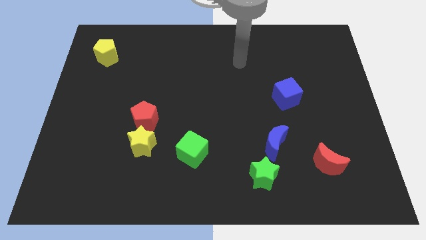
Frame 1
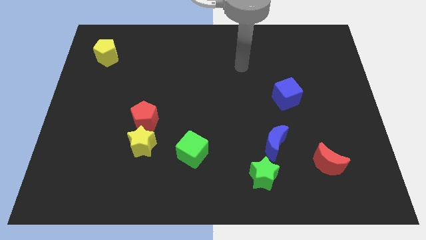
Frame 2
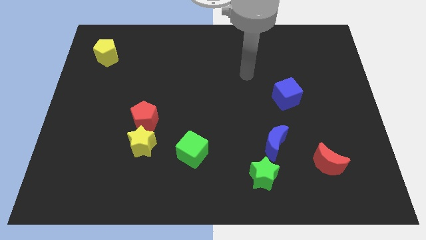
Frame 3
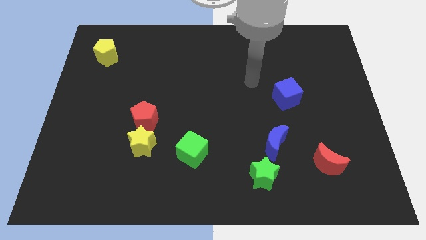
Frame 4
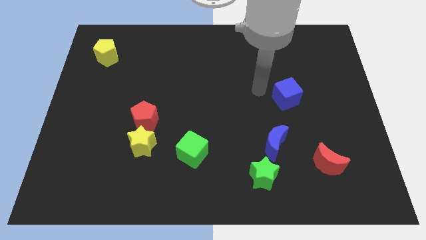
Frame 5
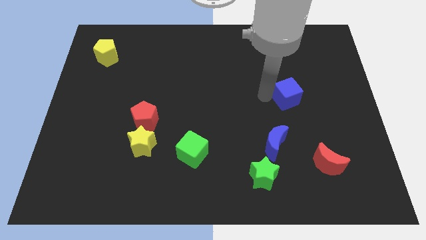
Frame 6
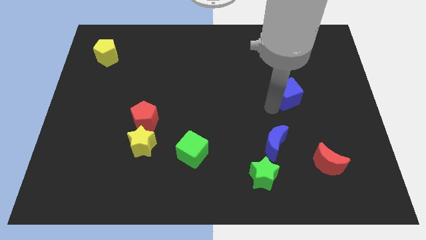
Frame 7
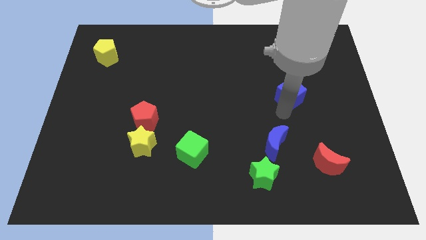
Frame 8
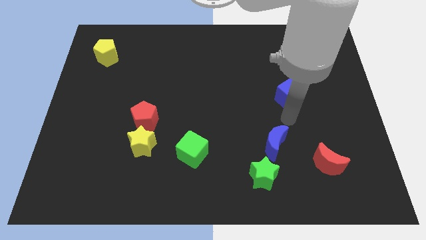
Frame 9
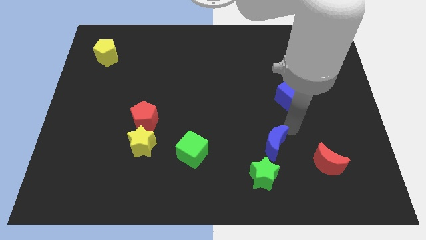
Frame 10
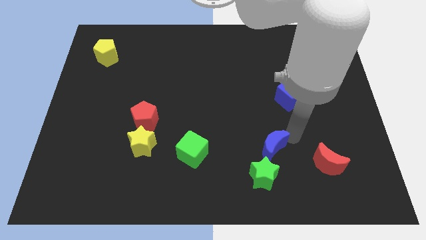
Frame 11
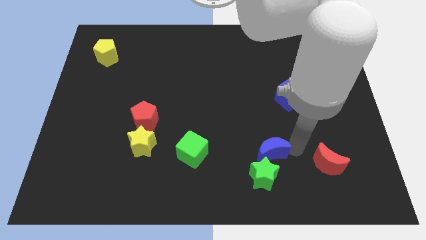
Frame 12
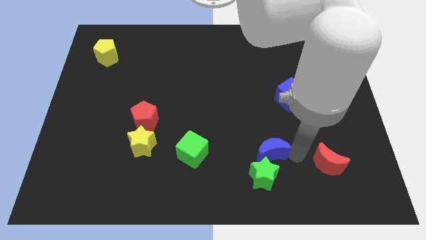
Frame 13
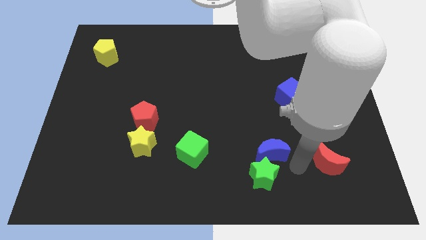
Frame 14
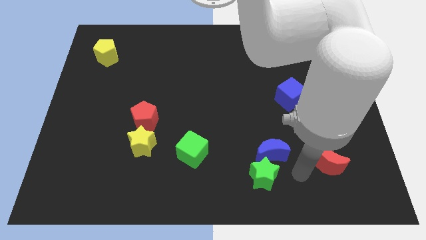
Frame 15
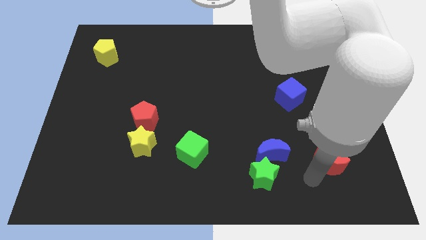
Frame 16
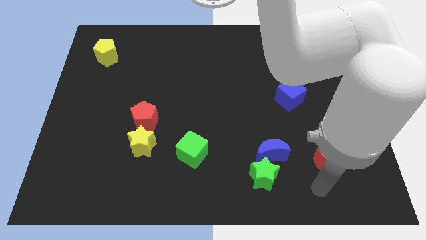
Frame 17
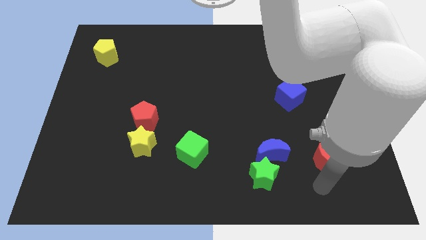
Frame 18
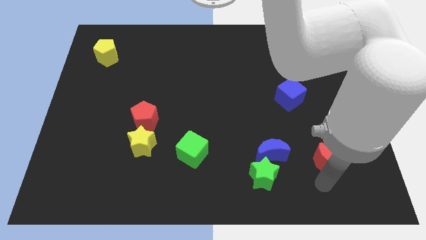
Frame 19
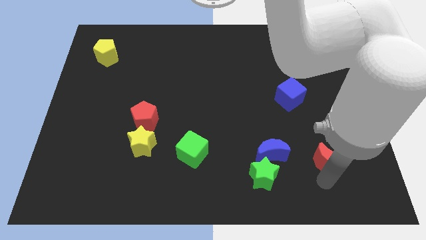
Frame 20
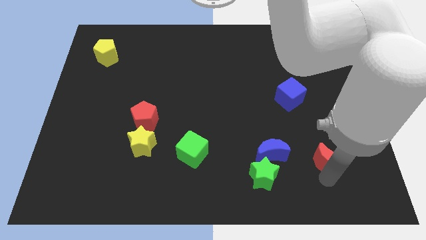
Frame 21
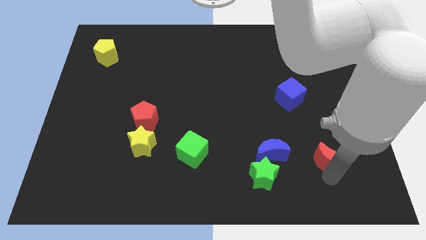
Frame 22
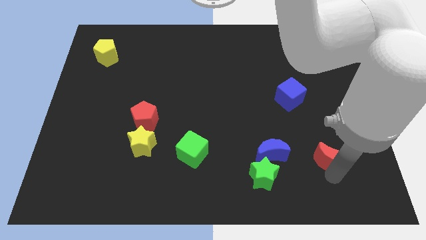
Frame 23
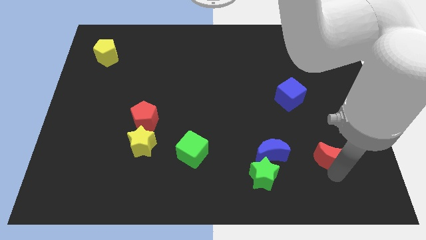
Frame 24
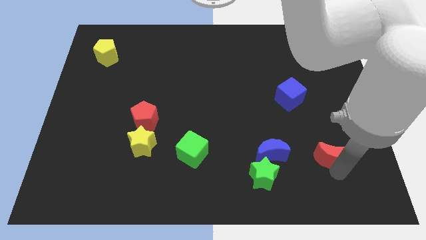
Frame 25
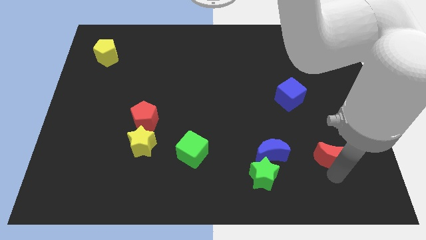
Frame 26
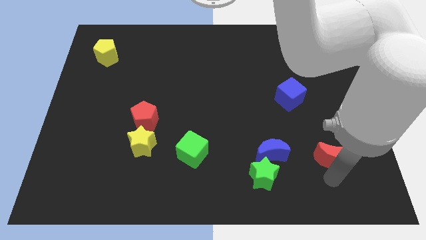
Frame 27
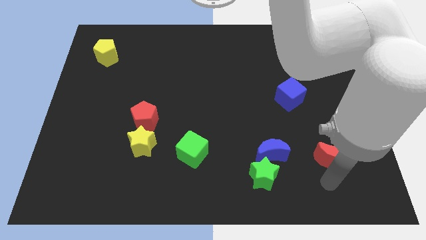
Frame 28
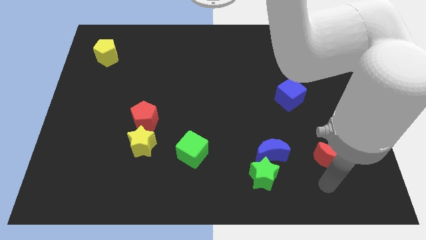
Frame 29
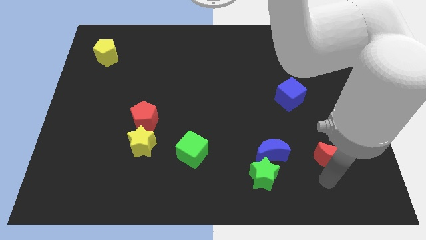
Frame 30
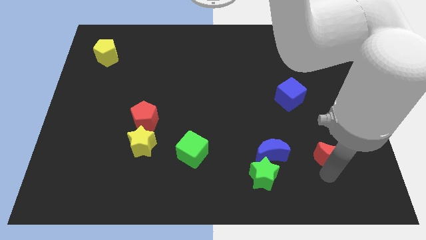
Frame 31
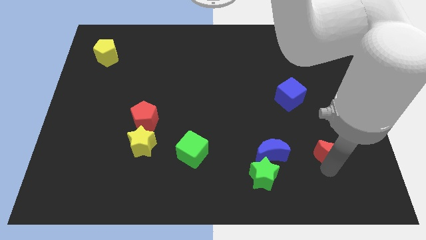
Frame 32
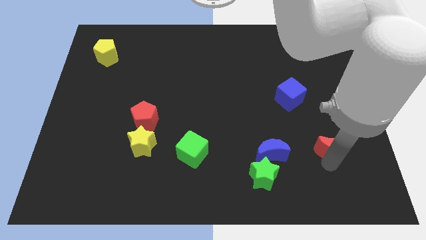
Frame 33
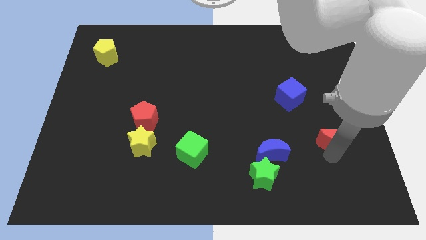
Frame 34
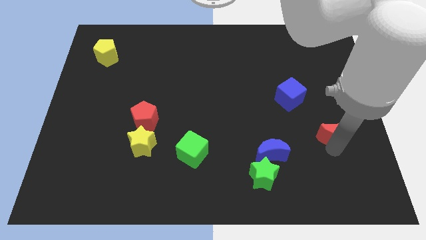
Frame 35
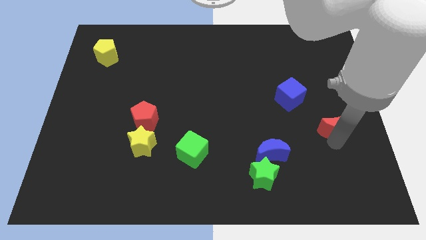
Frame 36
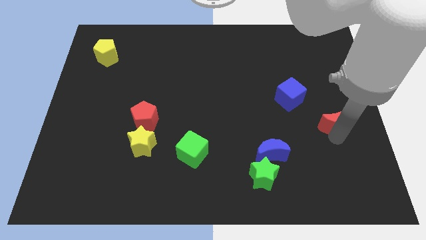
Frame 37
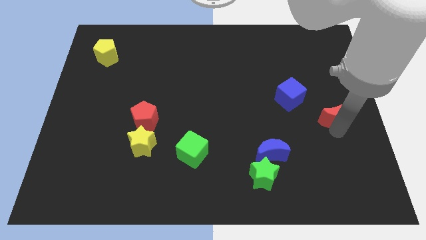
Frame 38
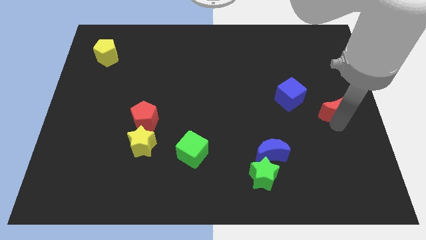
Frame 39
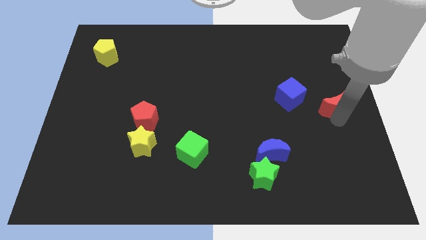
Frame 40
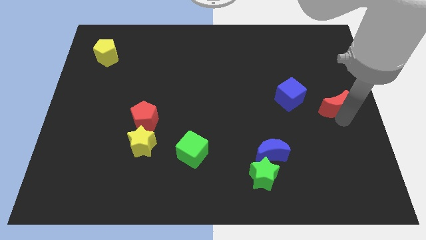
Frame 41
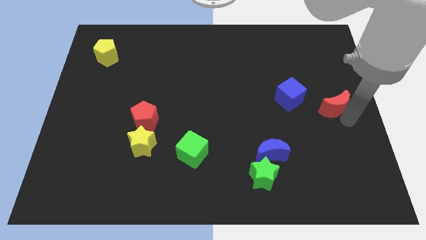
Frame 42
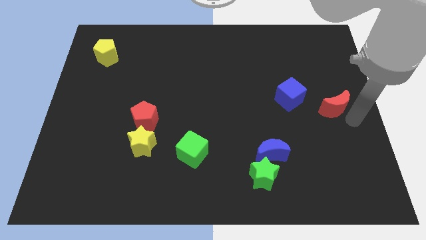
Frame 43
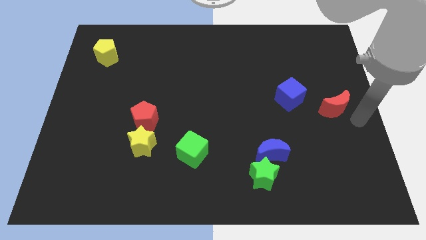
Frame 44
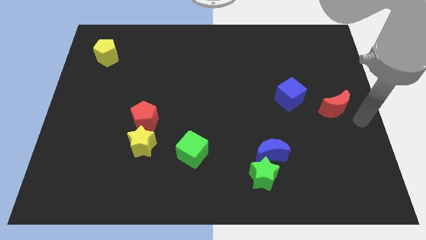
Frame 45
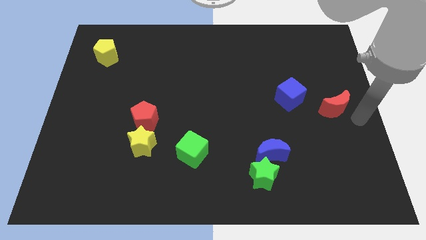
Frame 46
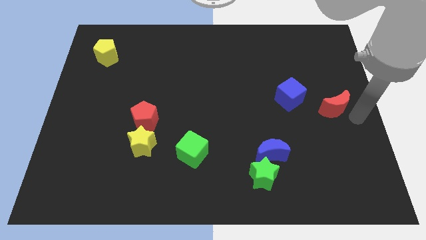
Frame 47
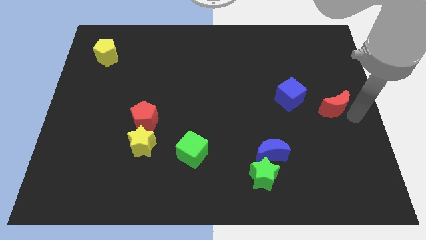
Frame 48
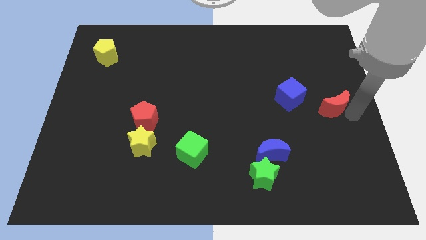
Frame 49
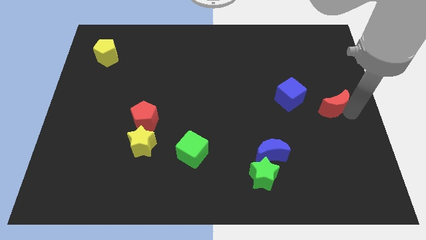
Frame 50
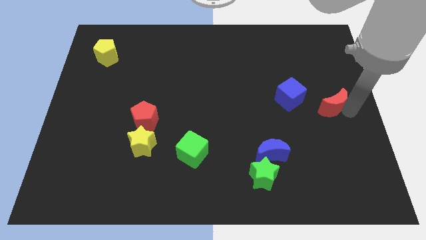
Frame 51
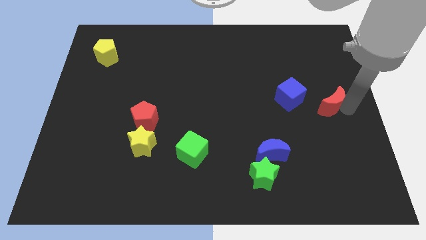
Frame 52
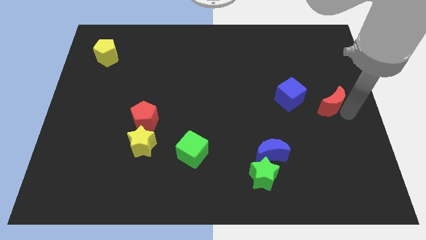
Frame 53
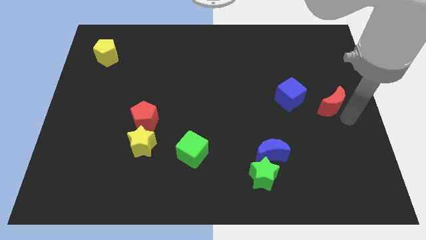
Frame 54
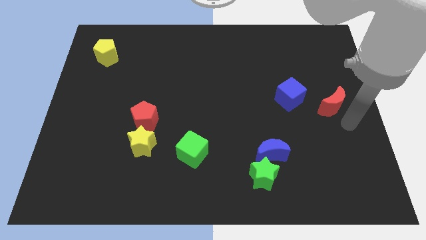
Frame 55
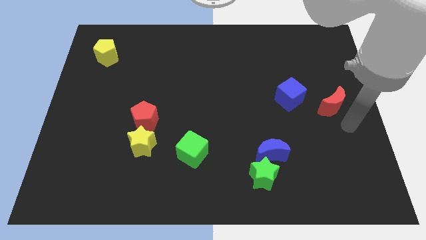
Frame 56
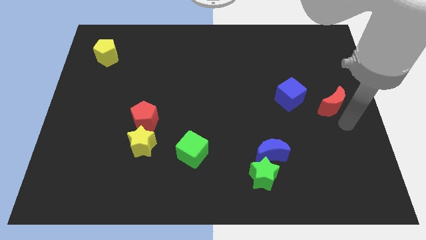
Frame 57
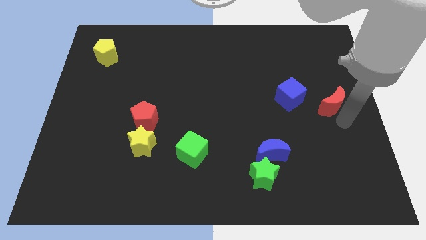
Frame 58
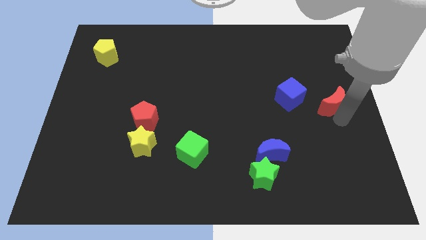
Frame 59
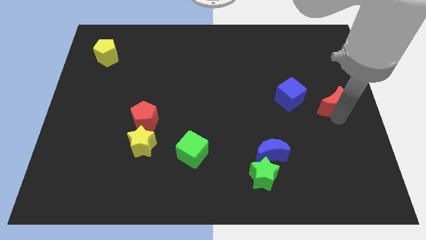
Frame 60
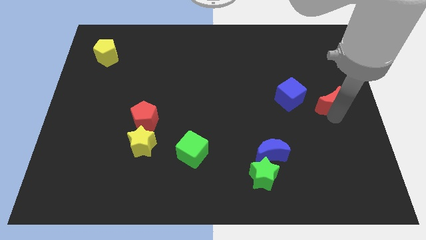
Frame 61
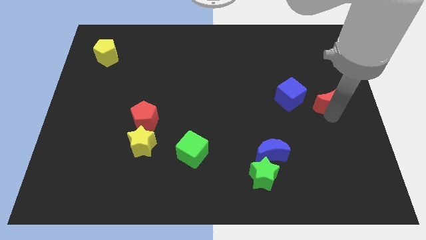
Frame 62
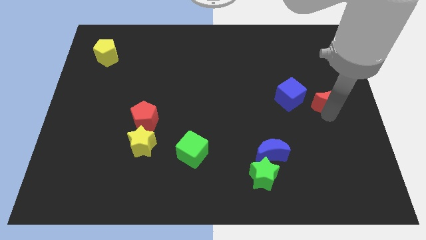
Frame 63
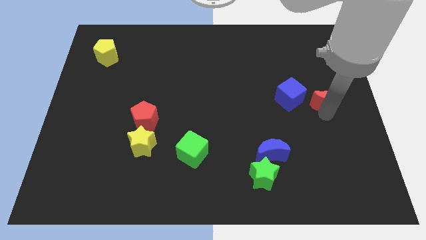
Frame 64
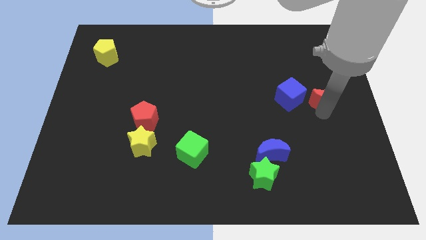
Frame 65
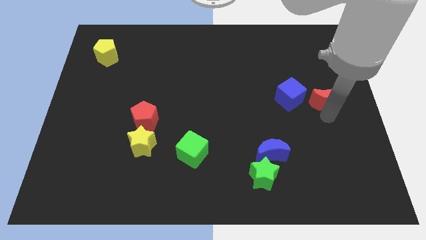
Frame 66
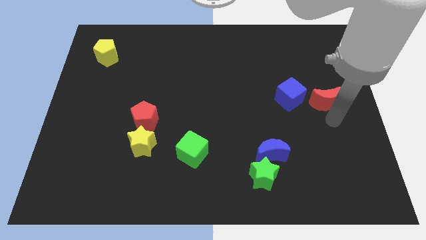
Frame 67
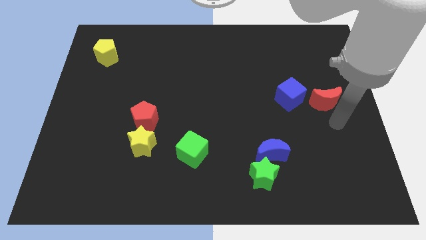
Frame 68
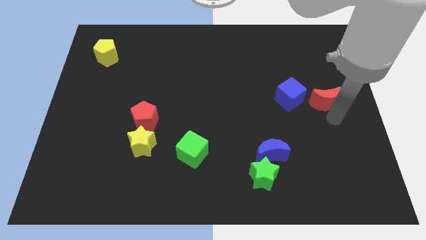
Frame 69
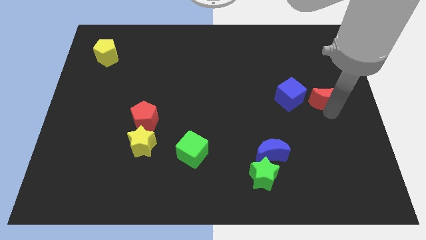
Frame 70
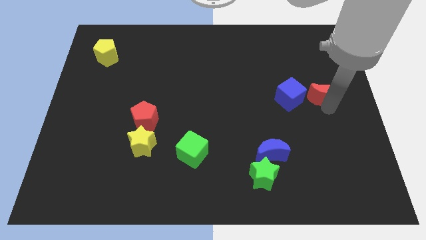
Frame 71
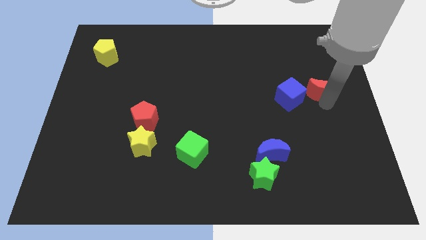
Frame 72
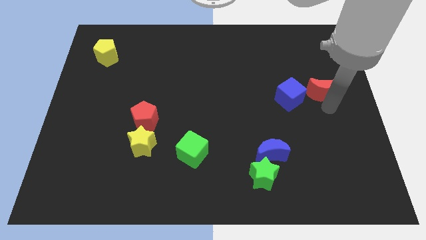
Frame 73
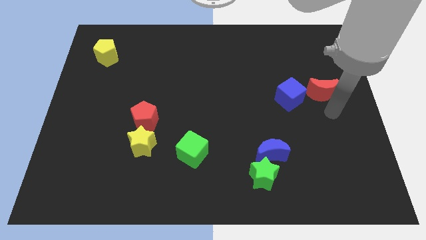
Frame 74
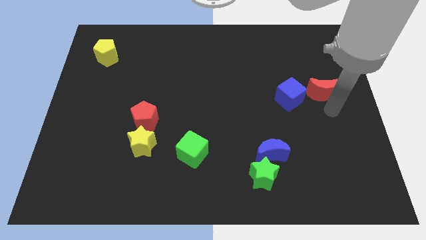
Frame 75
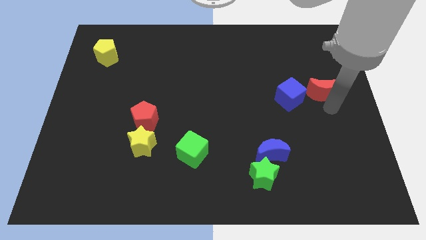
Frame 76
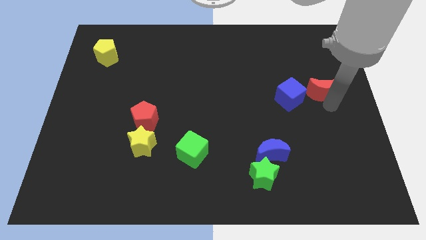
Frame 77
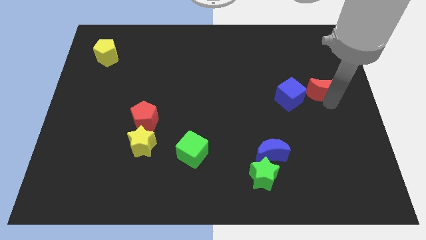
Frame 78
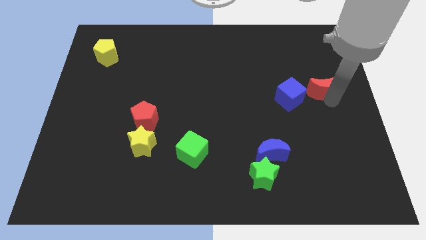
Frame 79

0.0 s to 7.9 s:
slide the red moon upwards

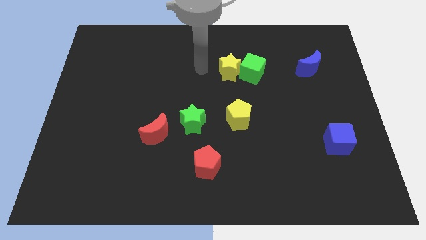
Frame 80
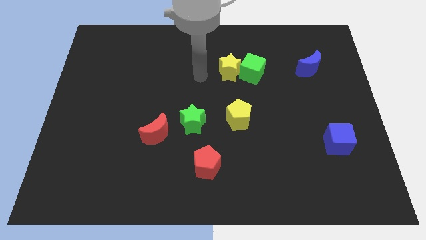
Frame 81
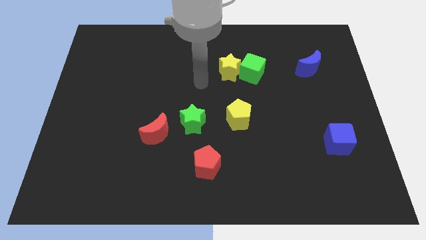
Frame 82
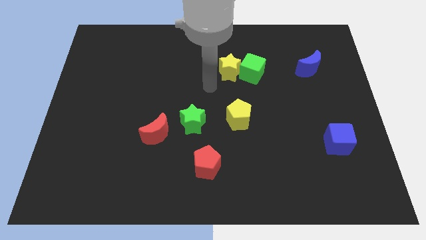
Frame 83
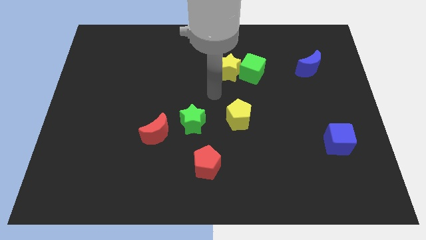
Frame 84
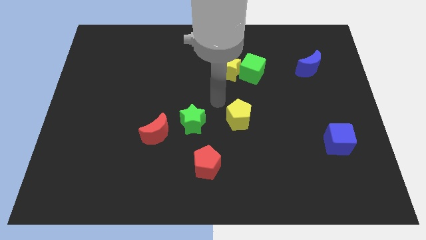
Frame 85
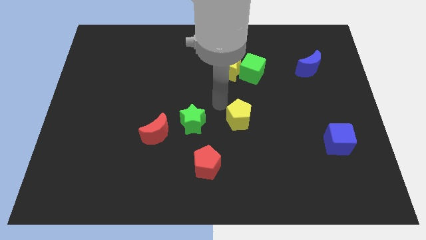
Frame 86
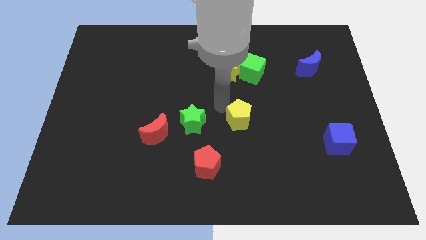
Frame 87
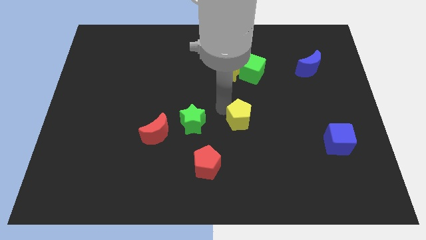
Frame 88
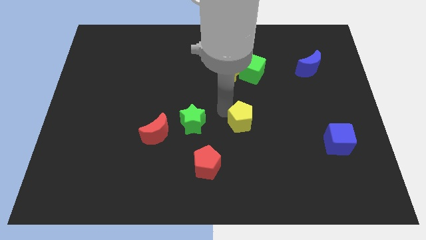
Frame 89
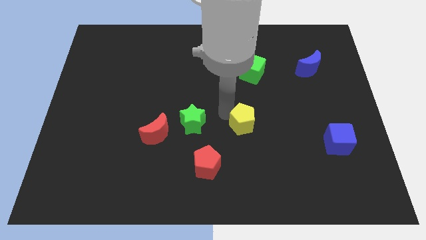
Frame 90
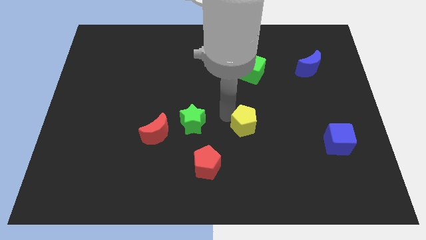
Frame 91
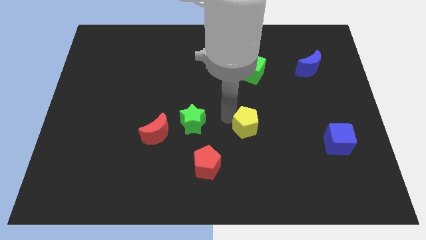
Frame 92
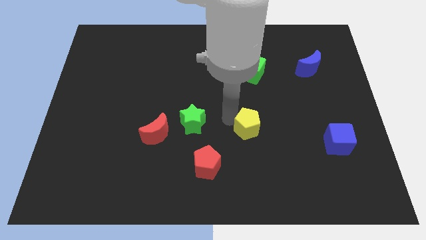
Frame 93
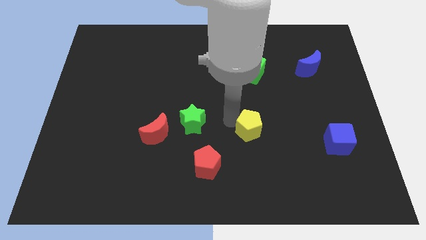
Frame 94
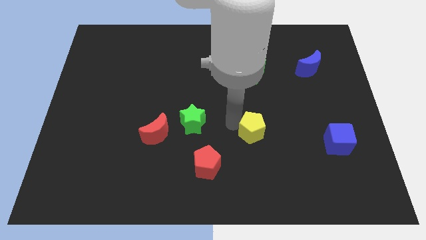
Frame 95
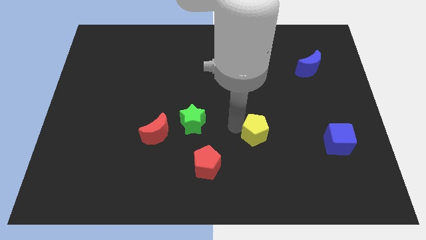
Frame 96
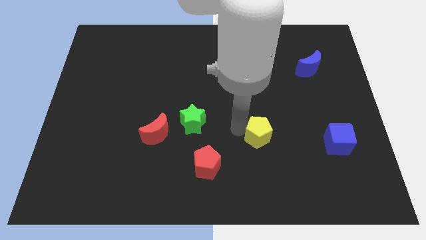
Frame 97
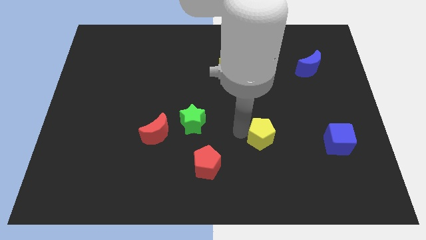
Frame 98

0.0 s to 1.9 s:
slightly move the yellow pentagon downwards and to the right diagonally
